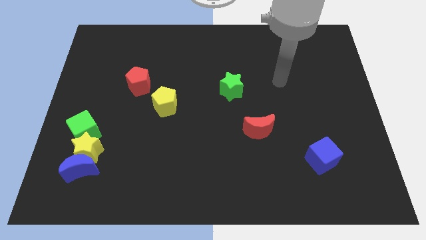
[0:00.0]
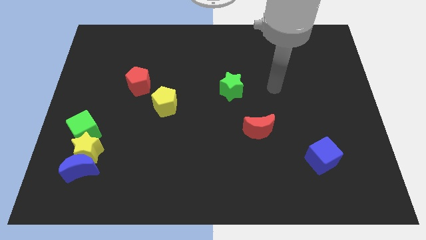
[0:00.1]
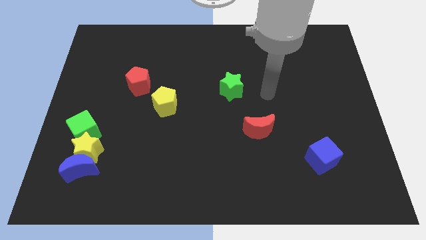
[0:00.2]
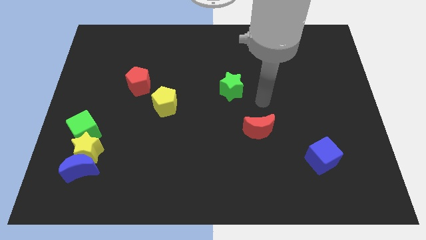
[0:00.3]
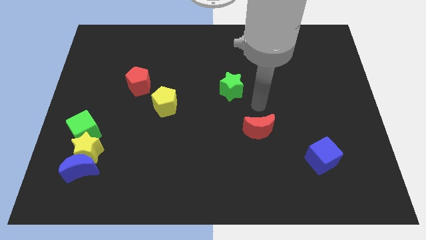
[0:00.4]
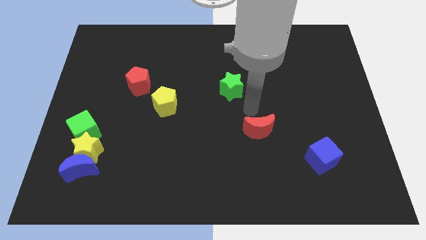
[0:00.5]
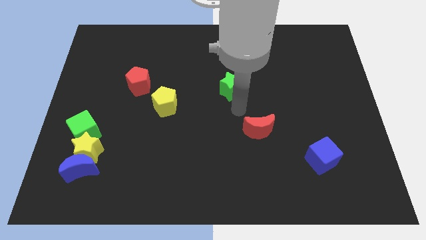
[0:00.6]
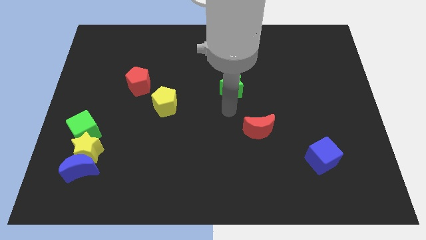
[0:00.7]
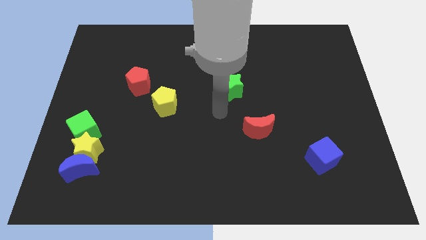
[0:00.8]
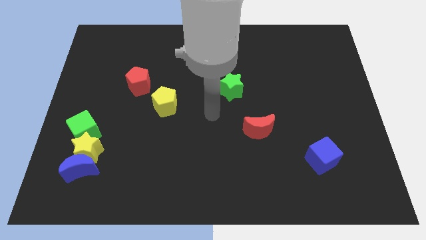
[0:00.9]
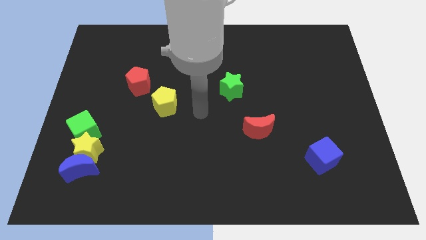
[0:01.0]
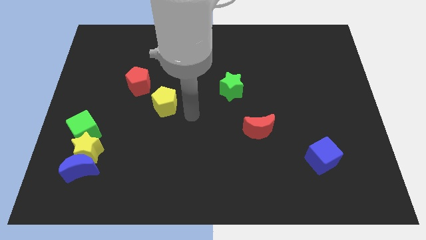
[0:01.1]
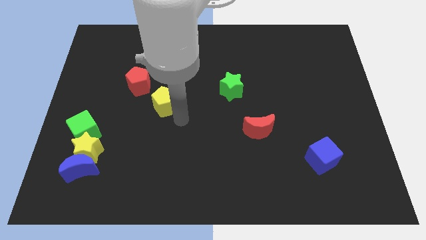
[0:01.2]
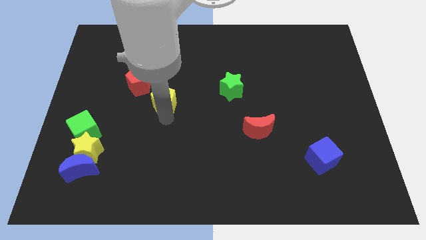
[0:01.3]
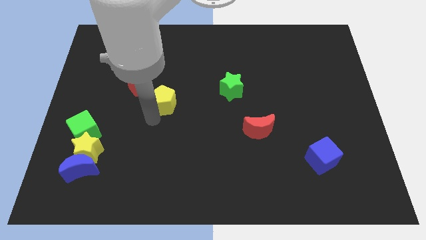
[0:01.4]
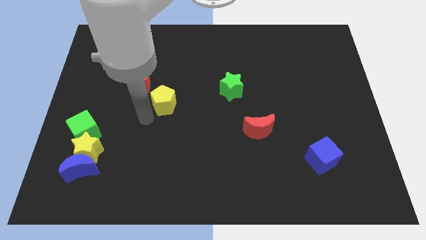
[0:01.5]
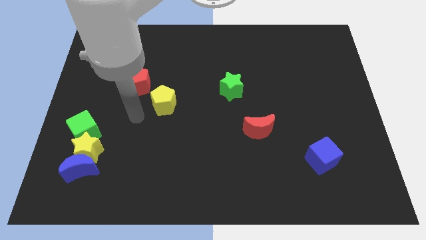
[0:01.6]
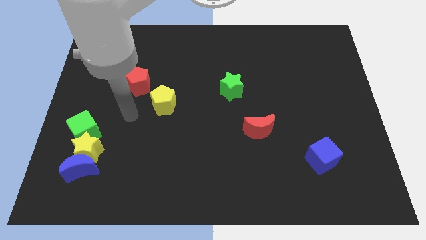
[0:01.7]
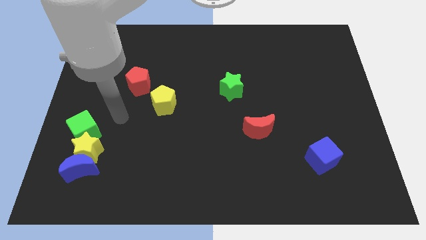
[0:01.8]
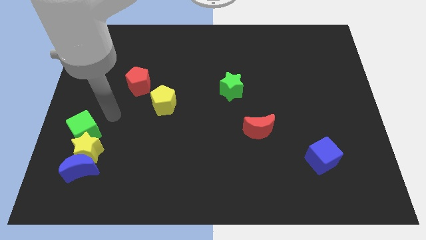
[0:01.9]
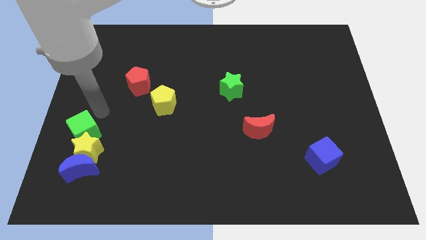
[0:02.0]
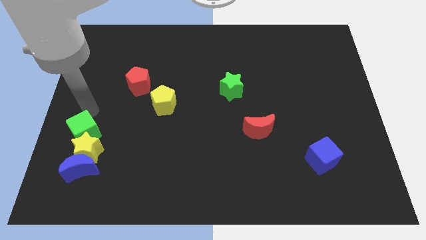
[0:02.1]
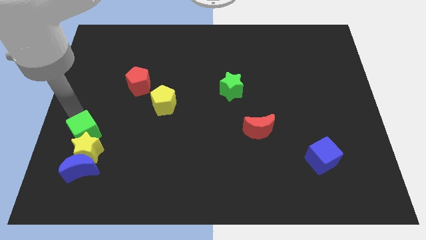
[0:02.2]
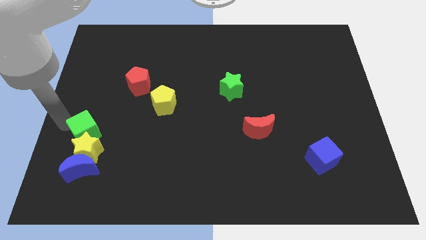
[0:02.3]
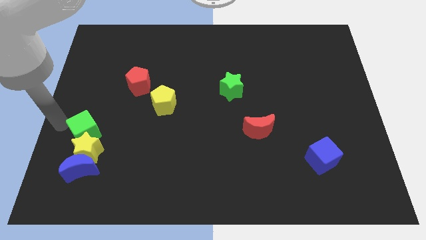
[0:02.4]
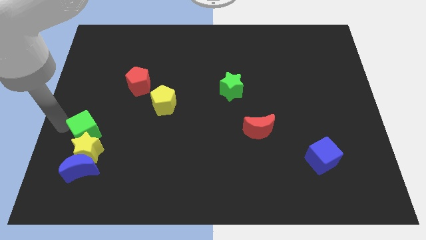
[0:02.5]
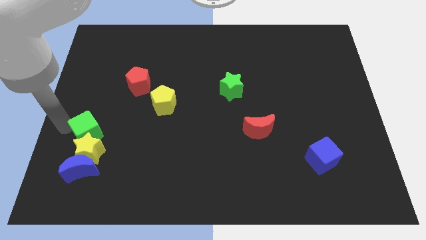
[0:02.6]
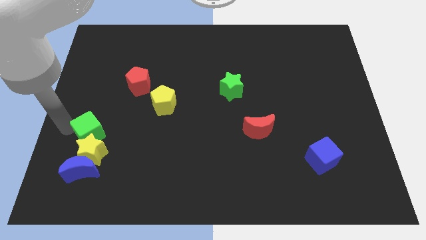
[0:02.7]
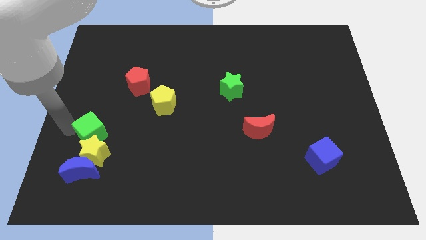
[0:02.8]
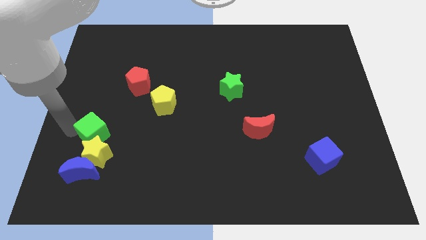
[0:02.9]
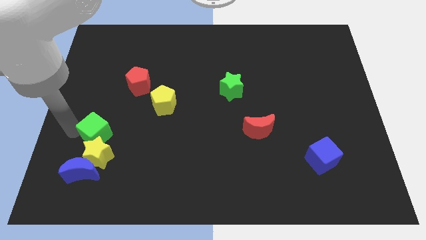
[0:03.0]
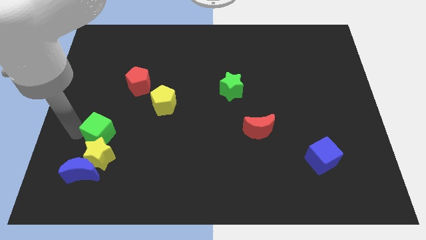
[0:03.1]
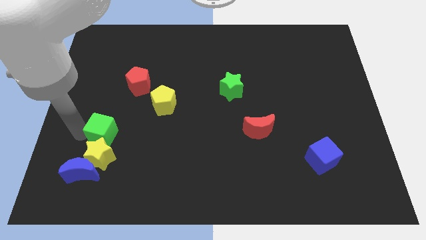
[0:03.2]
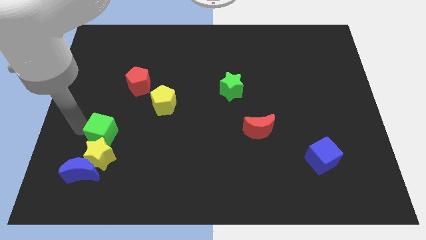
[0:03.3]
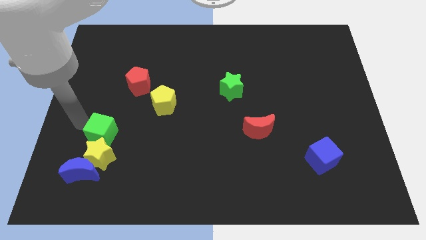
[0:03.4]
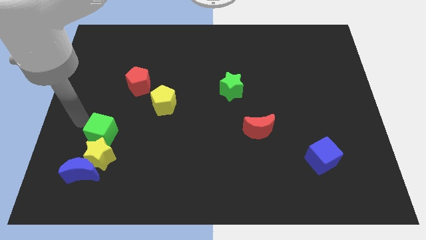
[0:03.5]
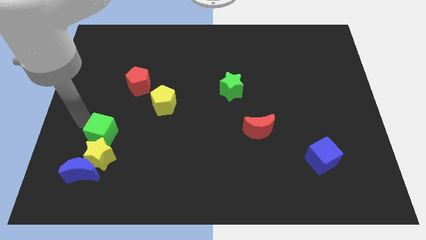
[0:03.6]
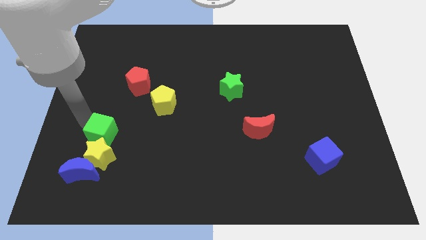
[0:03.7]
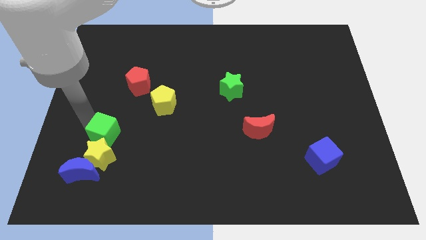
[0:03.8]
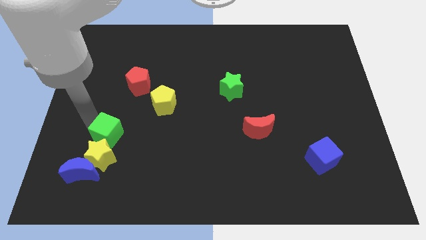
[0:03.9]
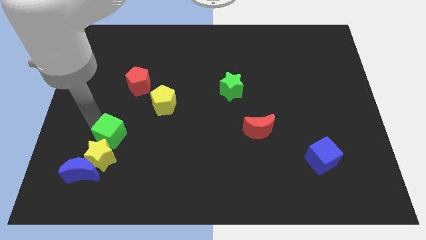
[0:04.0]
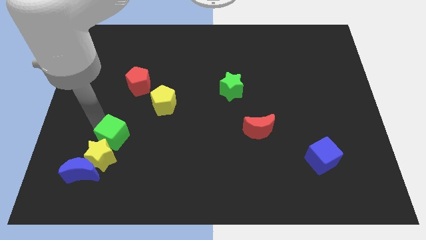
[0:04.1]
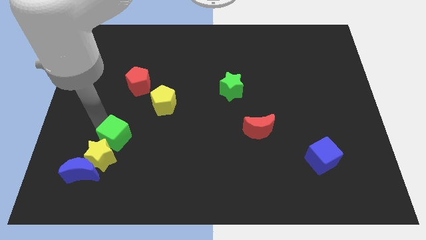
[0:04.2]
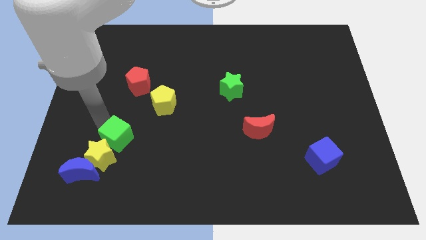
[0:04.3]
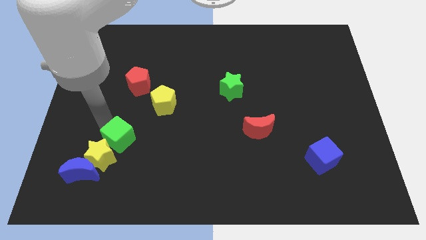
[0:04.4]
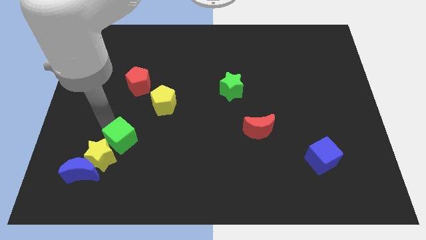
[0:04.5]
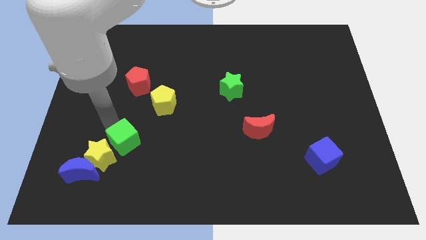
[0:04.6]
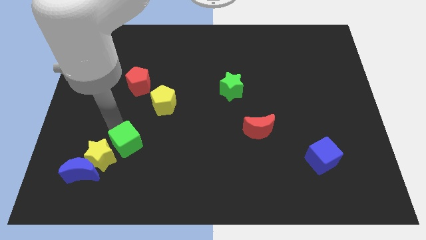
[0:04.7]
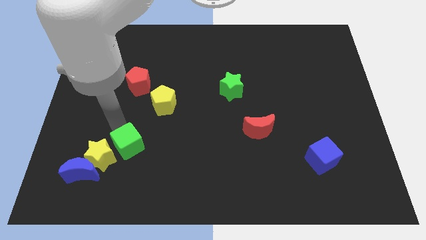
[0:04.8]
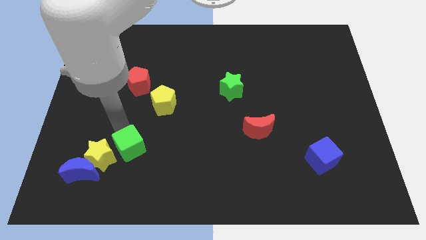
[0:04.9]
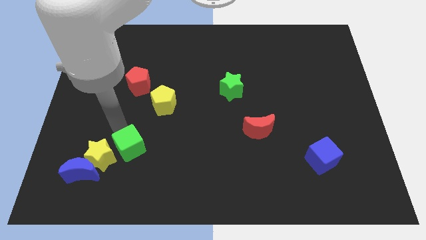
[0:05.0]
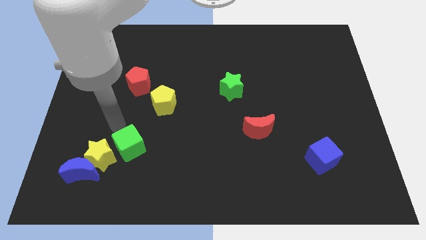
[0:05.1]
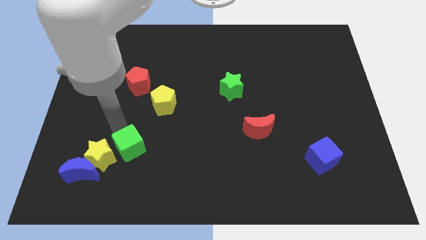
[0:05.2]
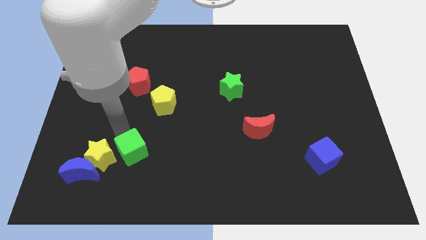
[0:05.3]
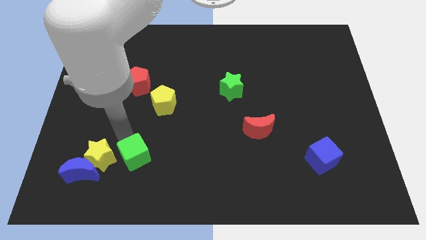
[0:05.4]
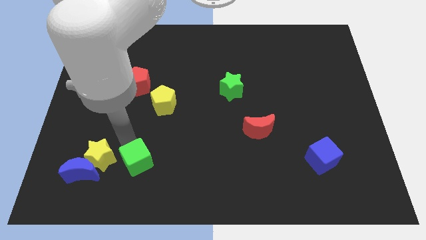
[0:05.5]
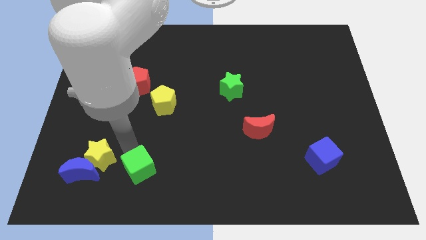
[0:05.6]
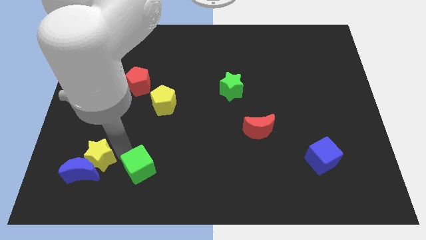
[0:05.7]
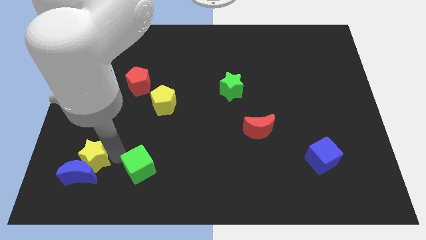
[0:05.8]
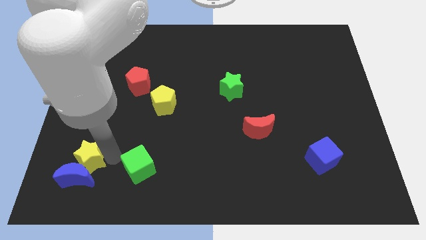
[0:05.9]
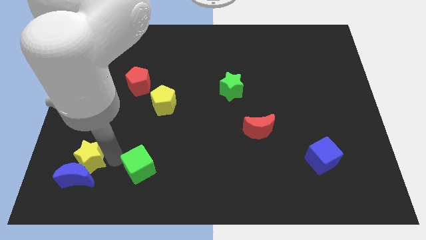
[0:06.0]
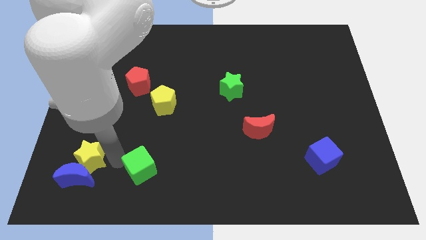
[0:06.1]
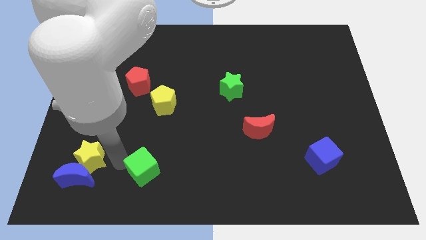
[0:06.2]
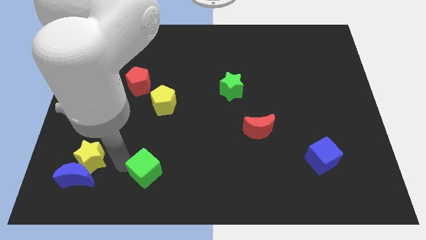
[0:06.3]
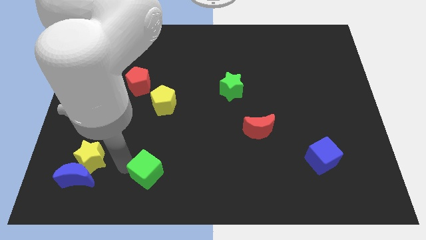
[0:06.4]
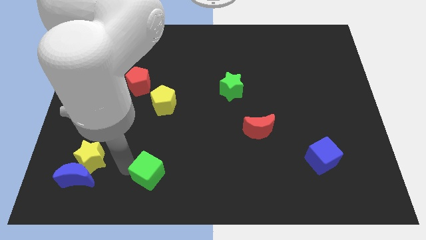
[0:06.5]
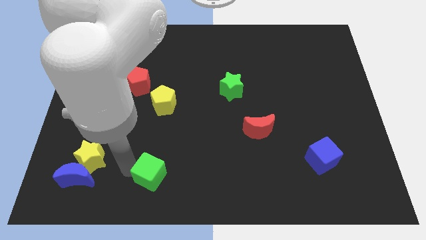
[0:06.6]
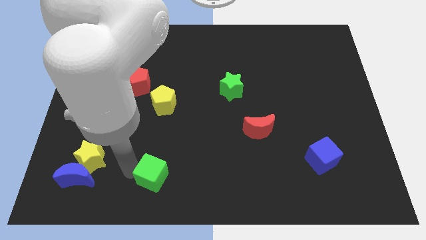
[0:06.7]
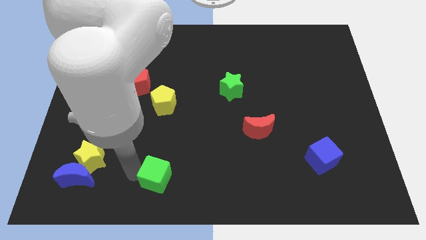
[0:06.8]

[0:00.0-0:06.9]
push the green cube to the bottom
